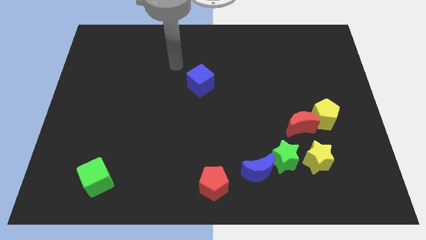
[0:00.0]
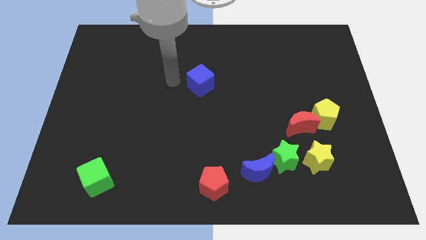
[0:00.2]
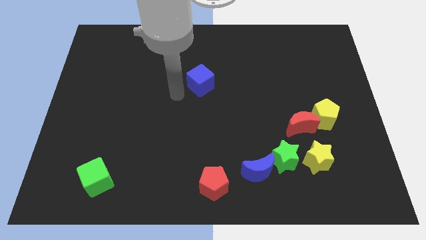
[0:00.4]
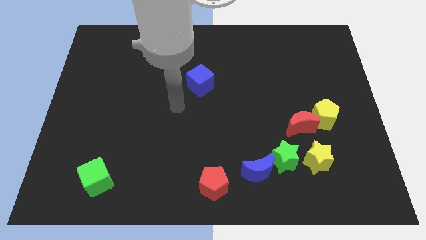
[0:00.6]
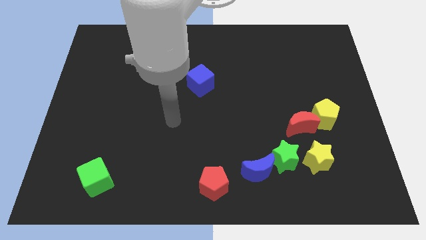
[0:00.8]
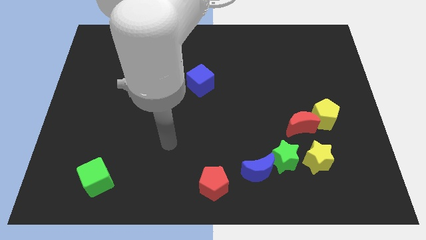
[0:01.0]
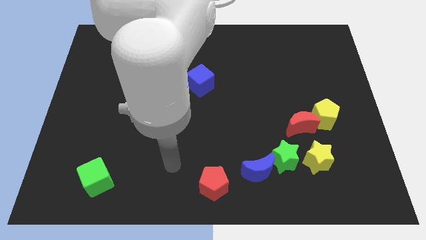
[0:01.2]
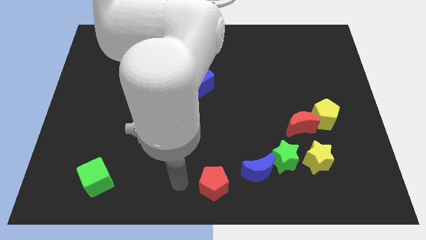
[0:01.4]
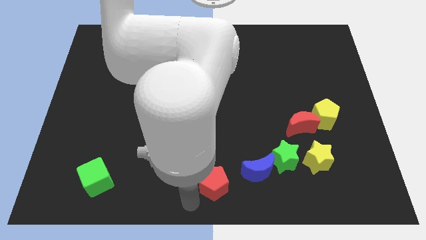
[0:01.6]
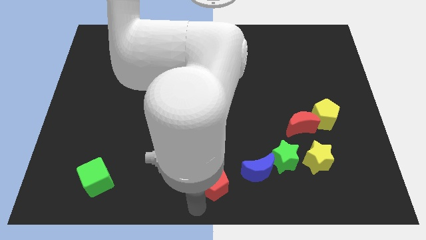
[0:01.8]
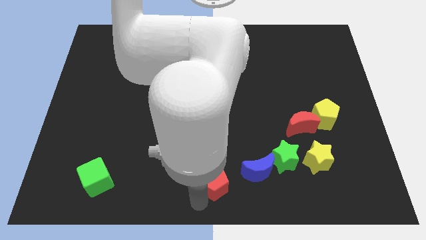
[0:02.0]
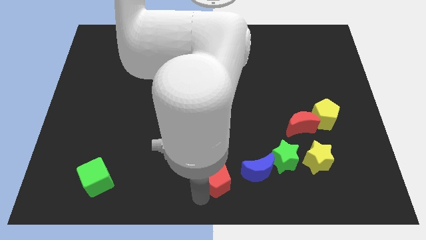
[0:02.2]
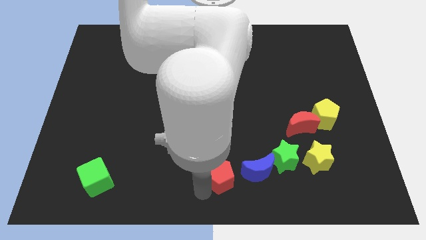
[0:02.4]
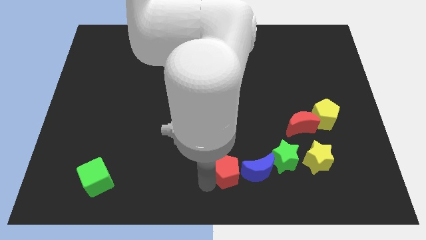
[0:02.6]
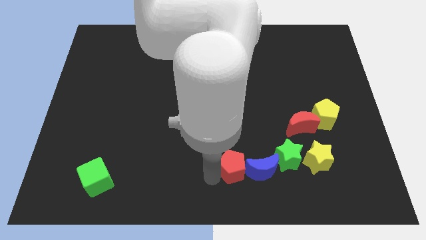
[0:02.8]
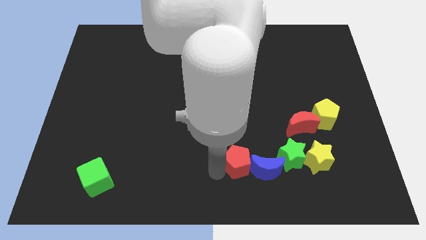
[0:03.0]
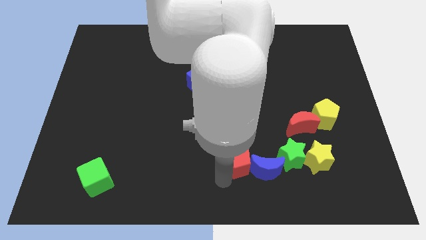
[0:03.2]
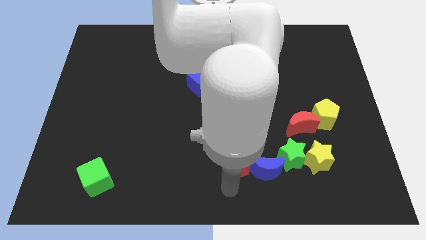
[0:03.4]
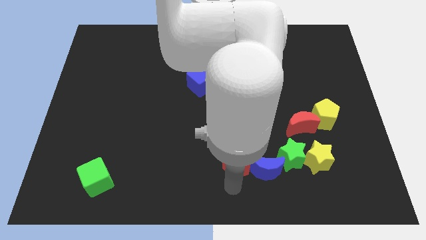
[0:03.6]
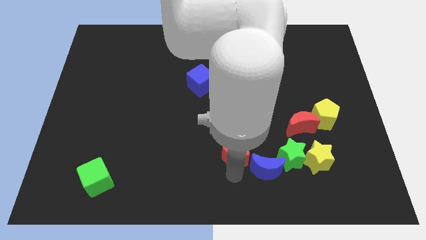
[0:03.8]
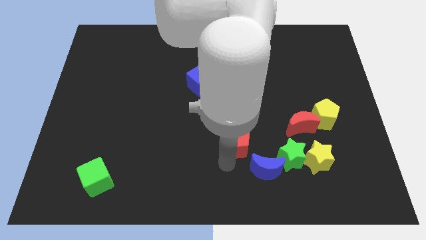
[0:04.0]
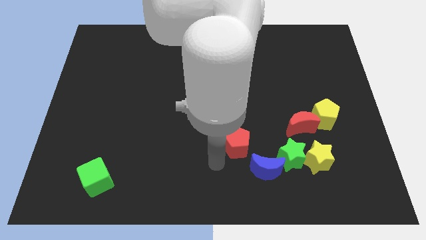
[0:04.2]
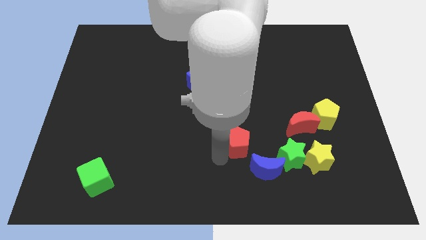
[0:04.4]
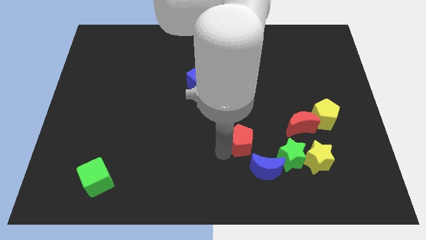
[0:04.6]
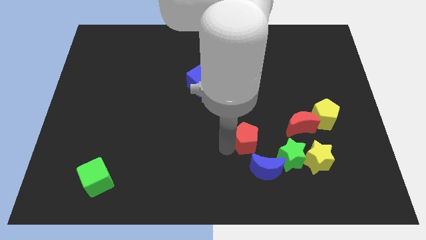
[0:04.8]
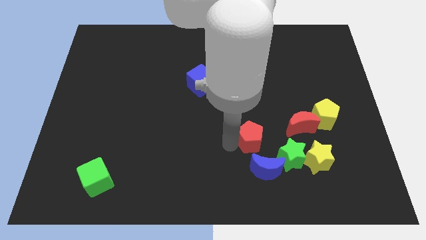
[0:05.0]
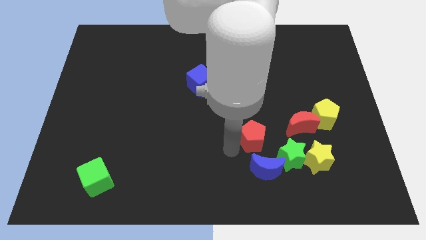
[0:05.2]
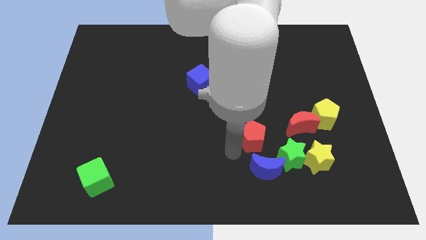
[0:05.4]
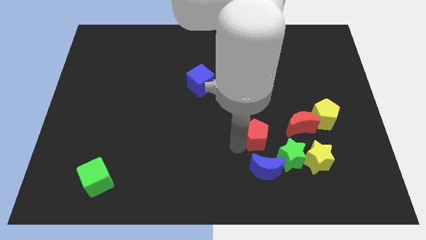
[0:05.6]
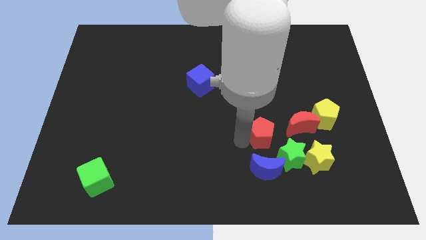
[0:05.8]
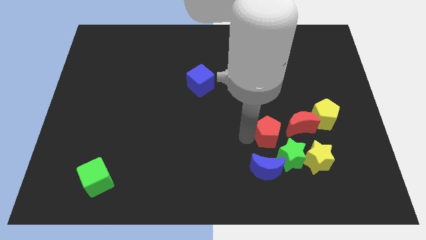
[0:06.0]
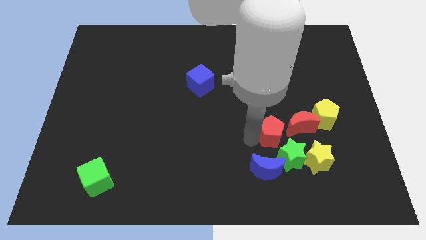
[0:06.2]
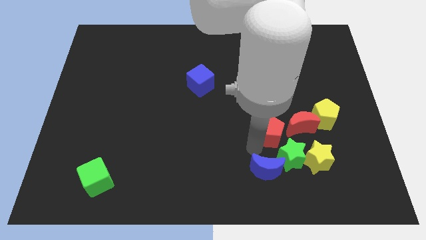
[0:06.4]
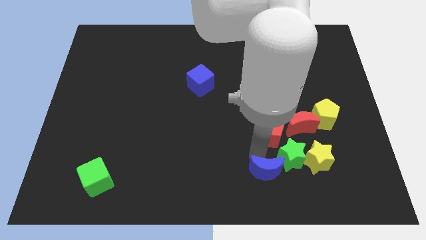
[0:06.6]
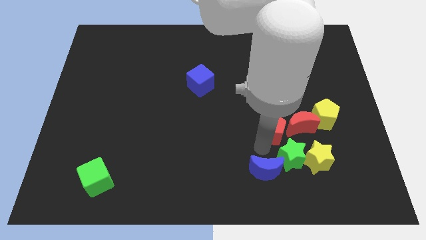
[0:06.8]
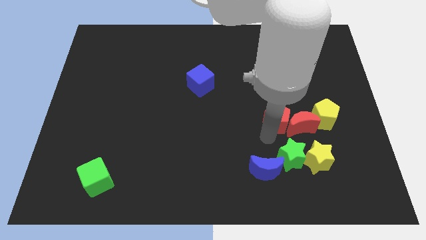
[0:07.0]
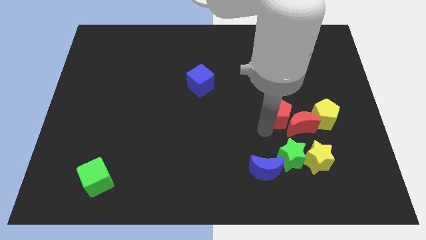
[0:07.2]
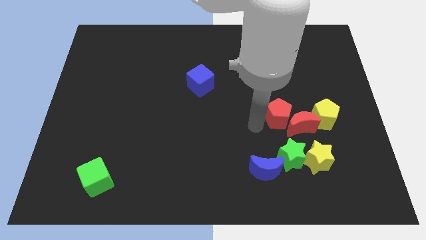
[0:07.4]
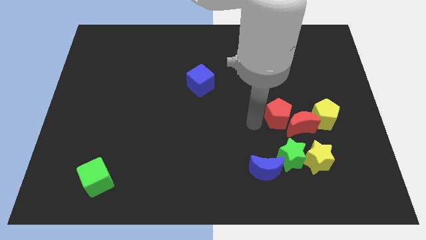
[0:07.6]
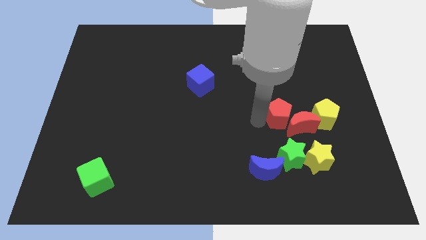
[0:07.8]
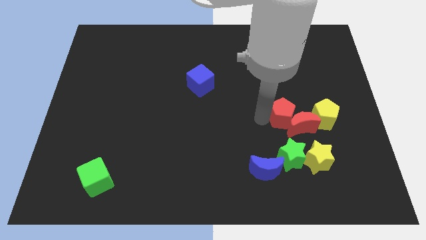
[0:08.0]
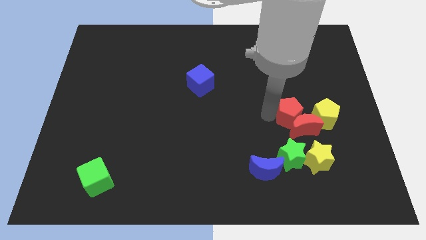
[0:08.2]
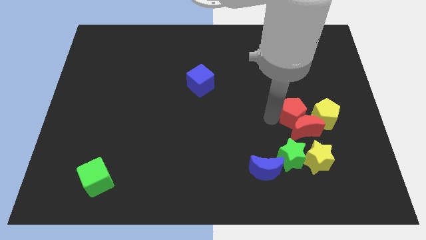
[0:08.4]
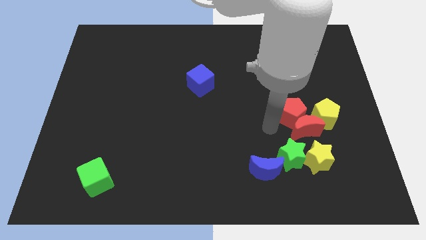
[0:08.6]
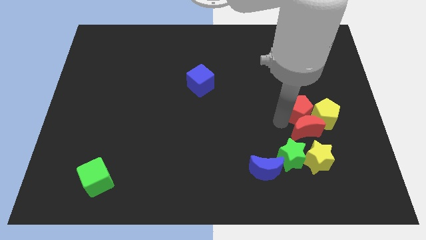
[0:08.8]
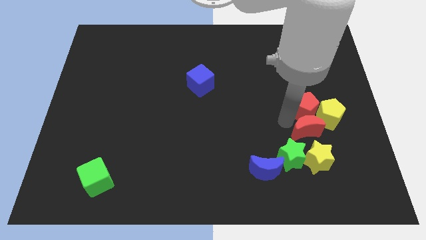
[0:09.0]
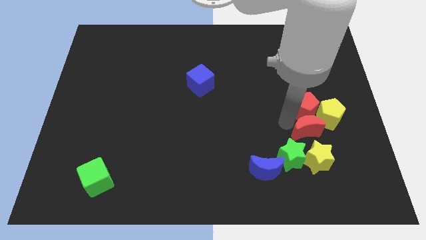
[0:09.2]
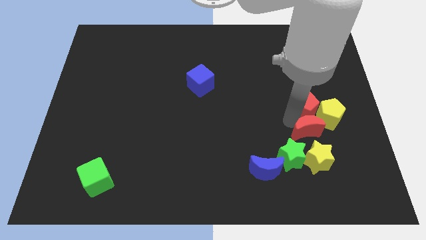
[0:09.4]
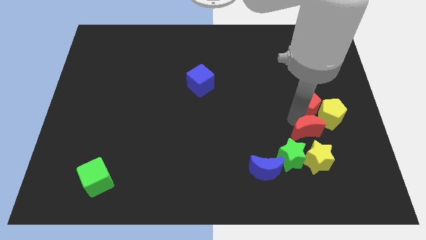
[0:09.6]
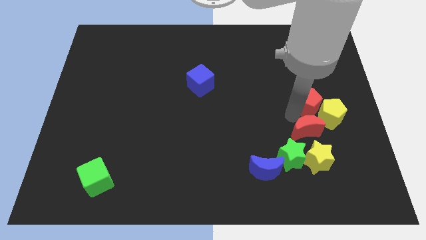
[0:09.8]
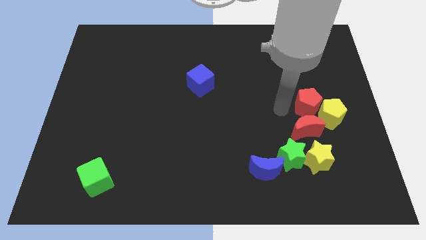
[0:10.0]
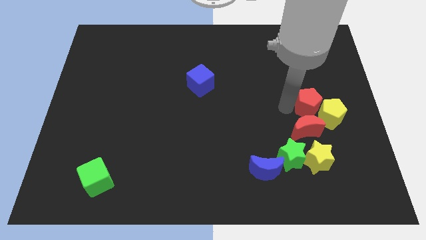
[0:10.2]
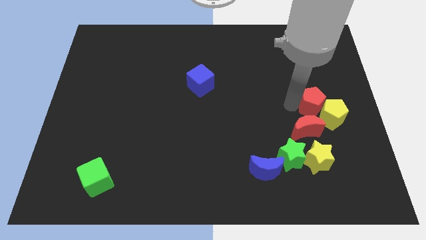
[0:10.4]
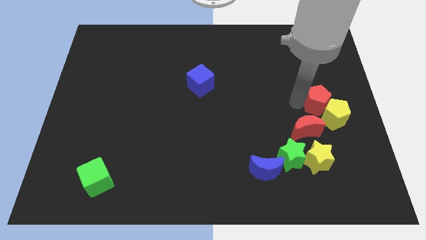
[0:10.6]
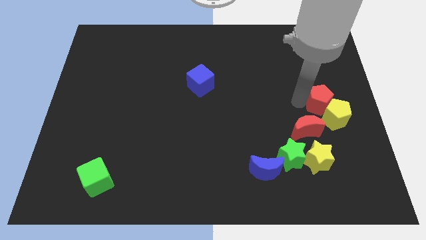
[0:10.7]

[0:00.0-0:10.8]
slide the red pentagon to the right side of the board

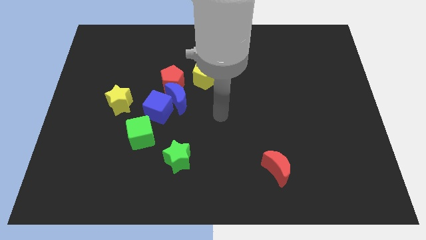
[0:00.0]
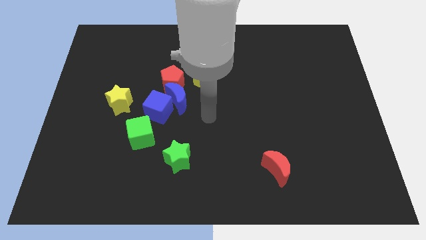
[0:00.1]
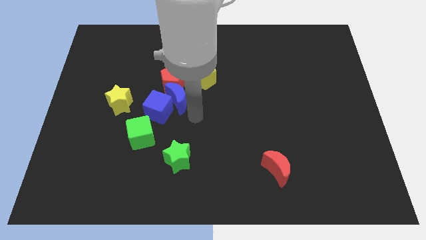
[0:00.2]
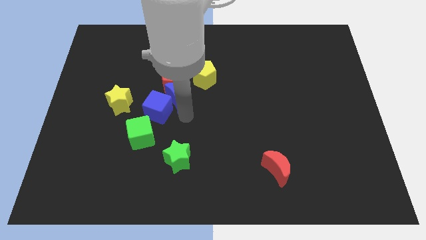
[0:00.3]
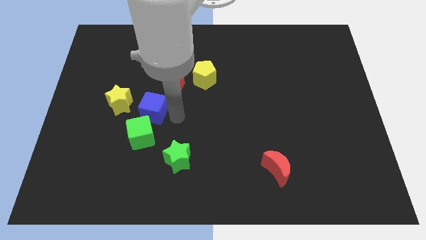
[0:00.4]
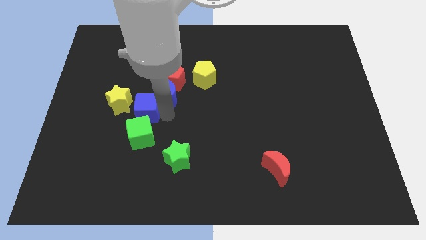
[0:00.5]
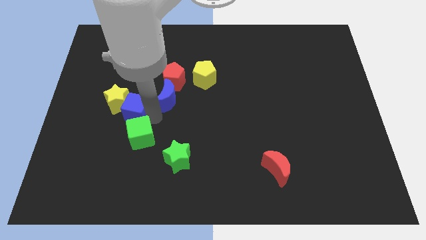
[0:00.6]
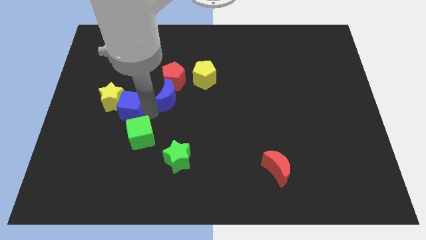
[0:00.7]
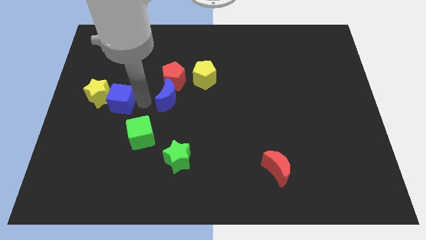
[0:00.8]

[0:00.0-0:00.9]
put the yellow star to the center left
